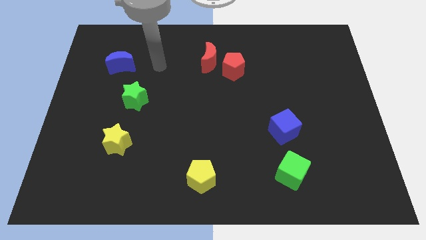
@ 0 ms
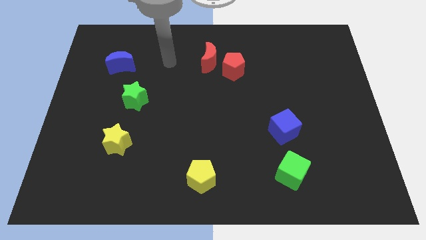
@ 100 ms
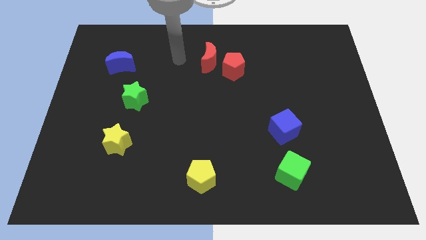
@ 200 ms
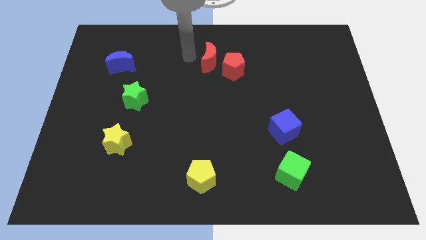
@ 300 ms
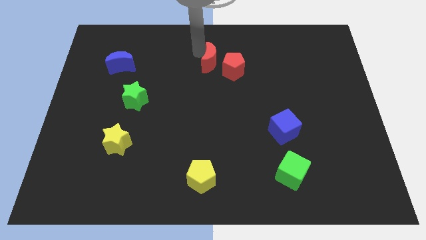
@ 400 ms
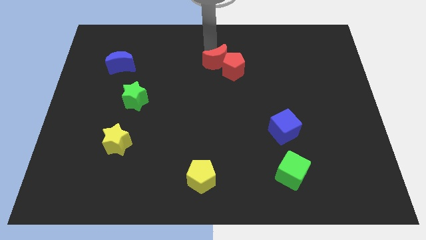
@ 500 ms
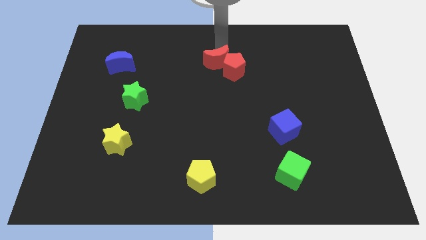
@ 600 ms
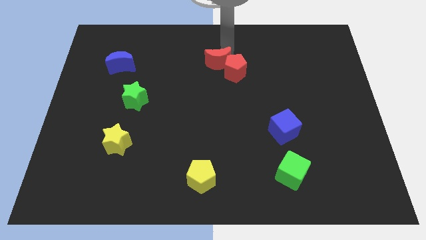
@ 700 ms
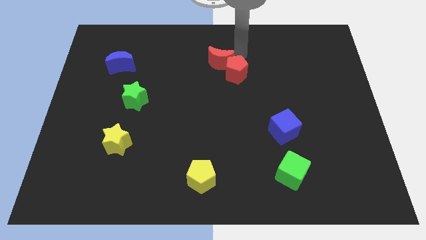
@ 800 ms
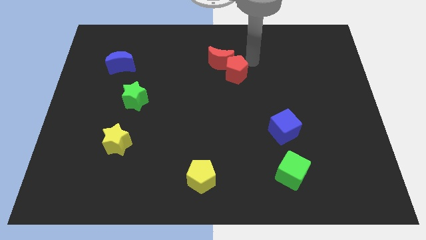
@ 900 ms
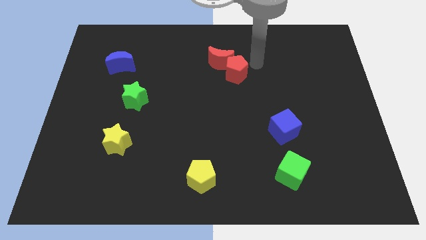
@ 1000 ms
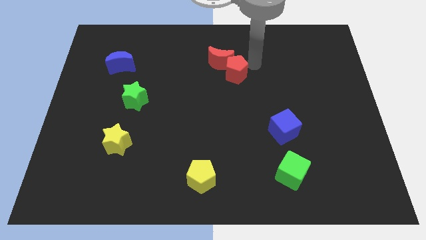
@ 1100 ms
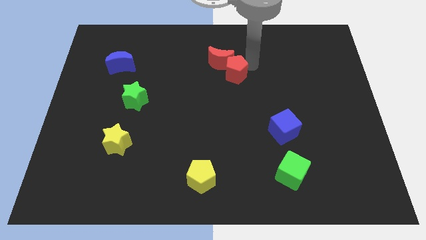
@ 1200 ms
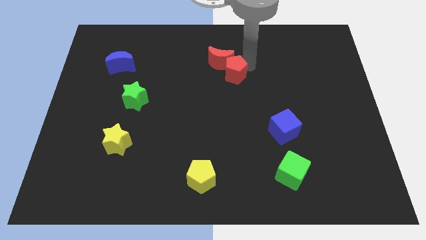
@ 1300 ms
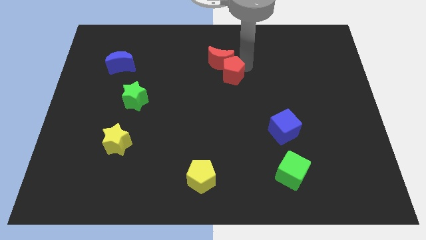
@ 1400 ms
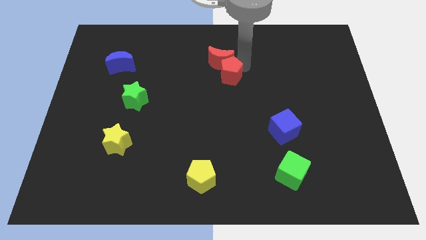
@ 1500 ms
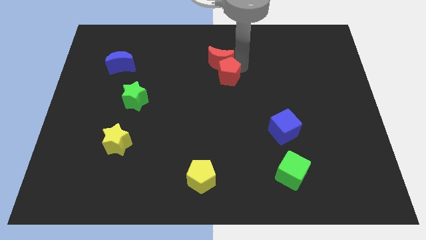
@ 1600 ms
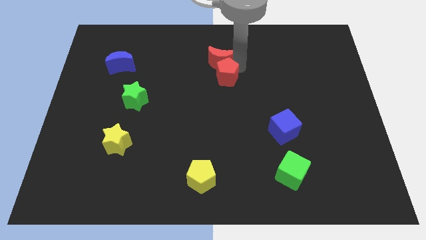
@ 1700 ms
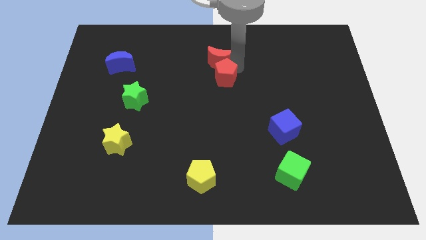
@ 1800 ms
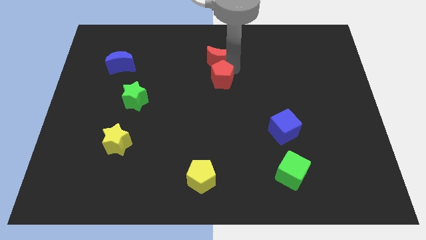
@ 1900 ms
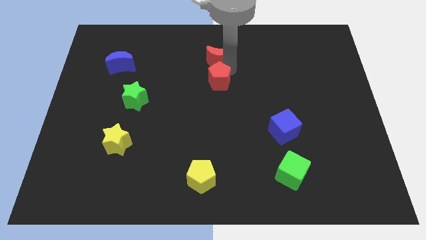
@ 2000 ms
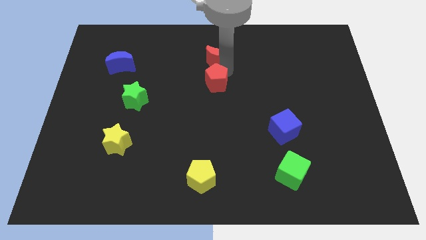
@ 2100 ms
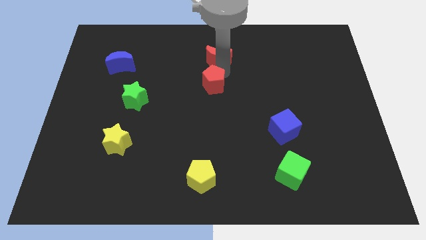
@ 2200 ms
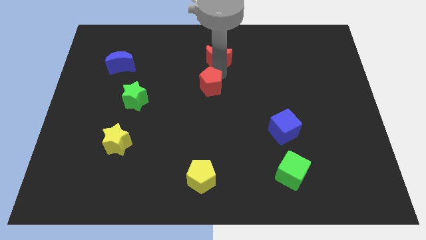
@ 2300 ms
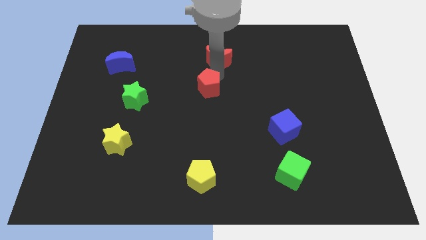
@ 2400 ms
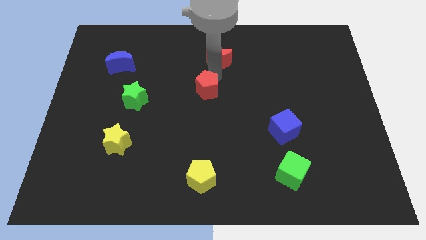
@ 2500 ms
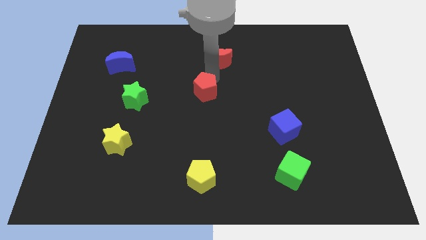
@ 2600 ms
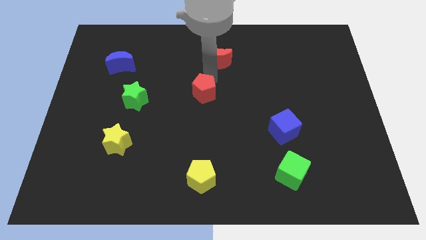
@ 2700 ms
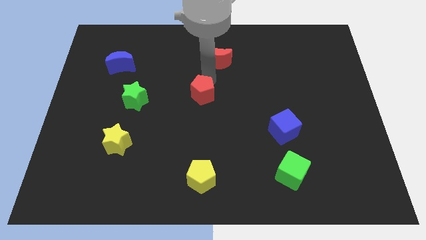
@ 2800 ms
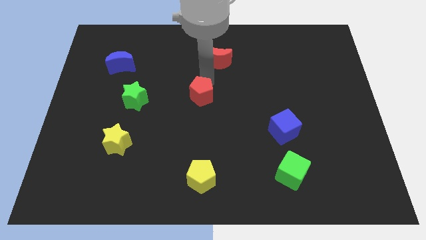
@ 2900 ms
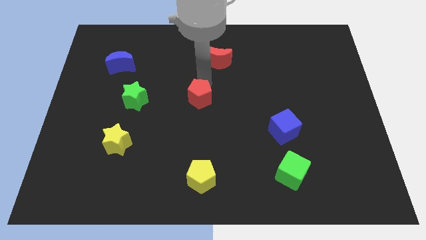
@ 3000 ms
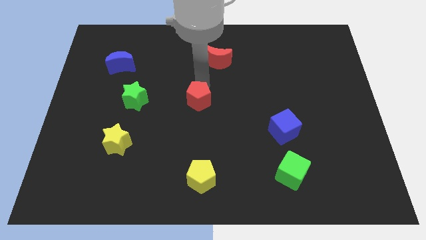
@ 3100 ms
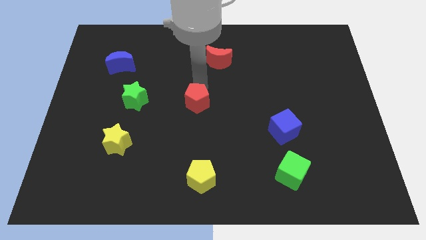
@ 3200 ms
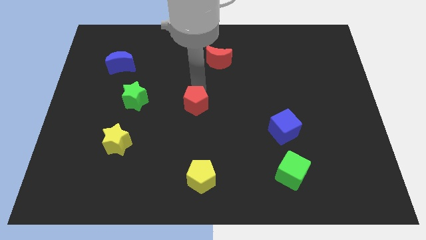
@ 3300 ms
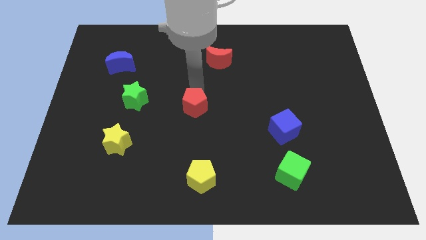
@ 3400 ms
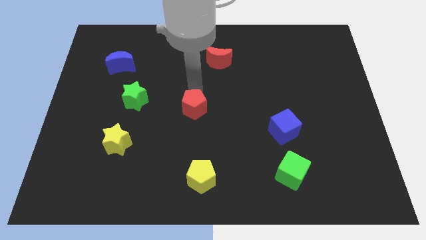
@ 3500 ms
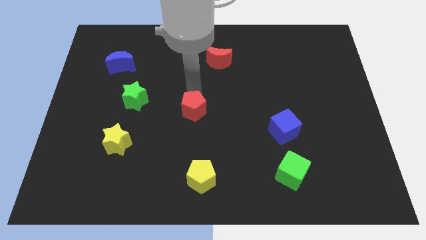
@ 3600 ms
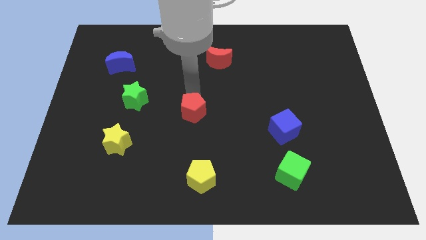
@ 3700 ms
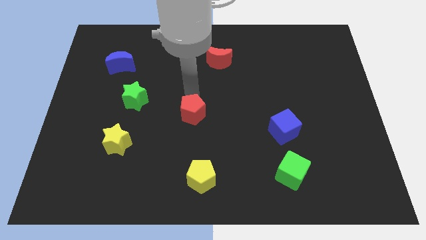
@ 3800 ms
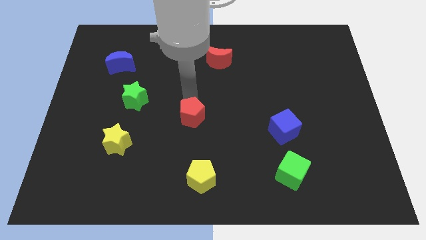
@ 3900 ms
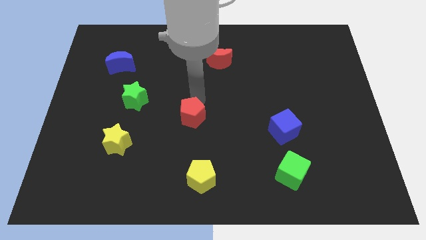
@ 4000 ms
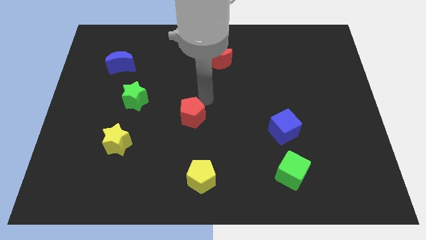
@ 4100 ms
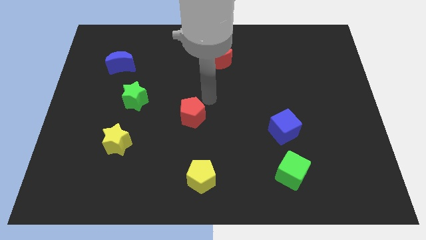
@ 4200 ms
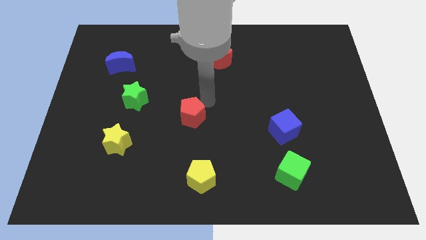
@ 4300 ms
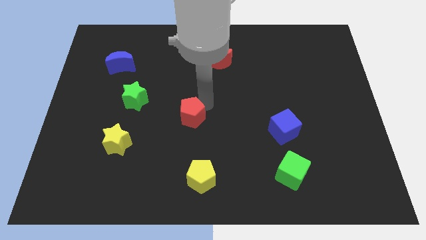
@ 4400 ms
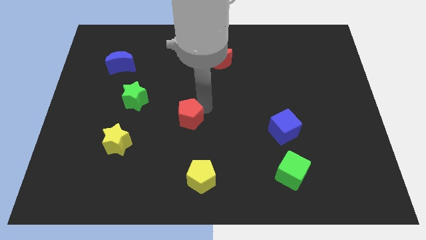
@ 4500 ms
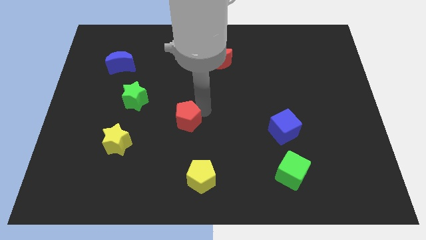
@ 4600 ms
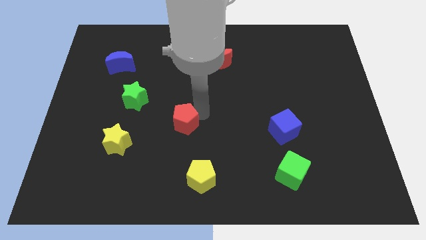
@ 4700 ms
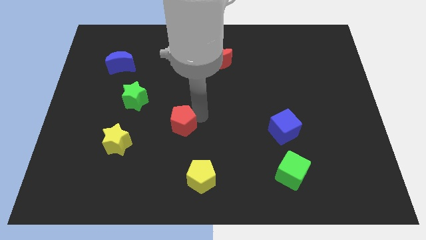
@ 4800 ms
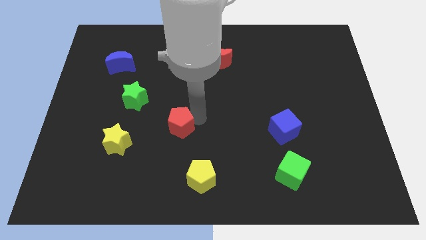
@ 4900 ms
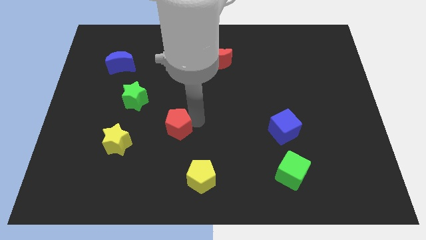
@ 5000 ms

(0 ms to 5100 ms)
move the red pentagon to the right of the yellow star

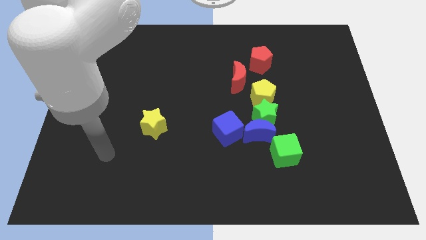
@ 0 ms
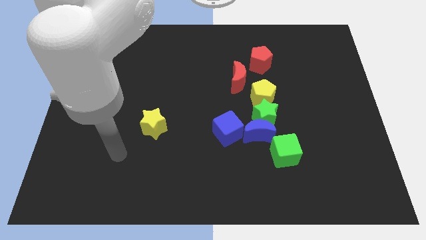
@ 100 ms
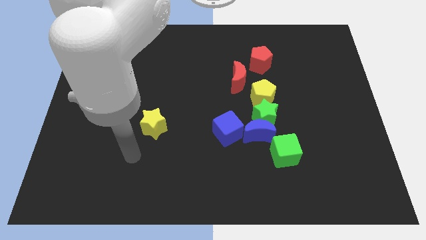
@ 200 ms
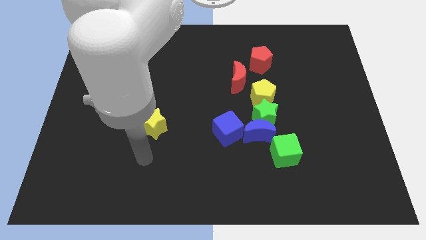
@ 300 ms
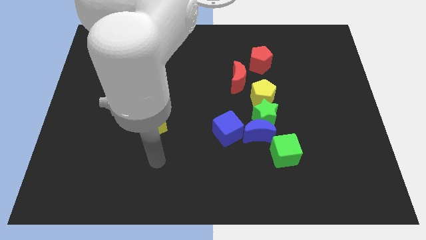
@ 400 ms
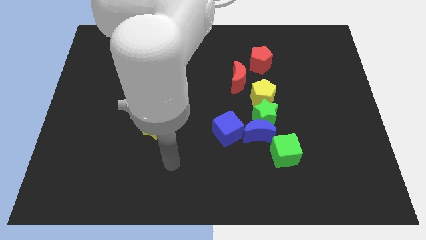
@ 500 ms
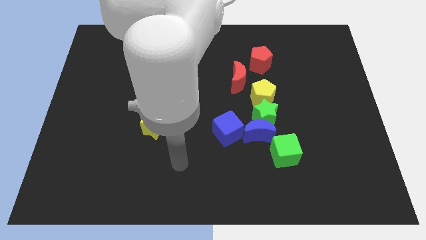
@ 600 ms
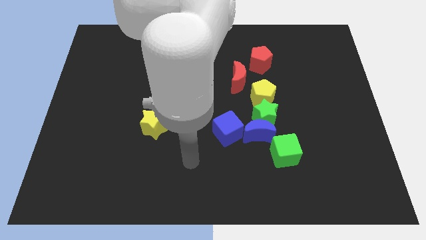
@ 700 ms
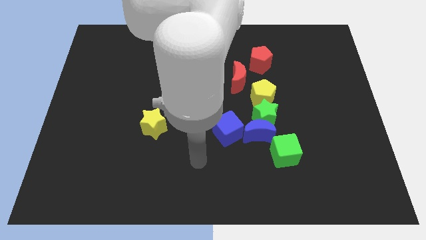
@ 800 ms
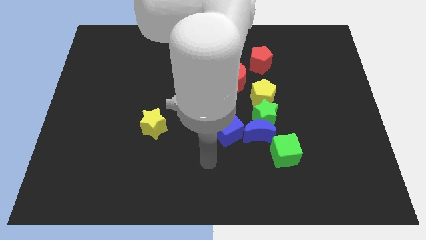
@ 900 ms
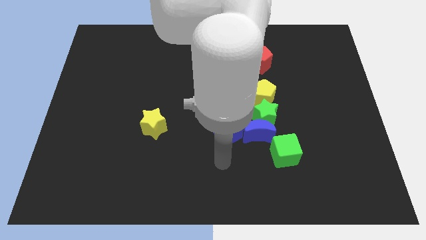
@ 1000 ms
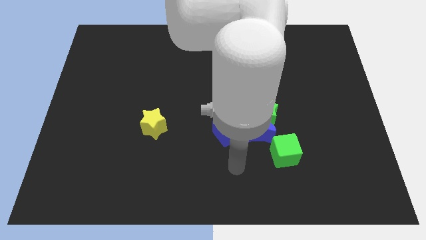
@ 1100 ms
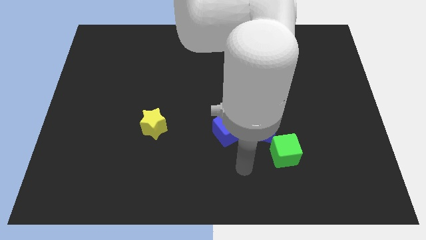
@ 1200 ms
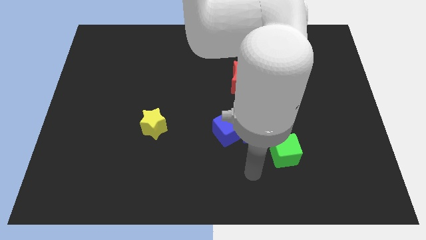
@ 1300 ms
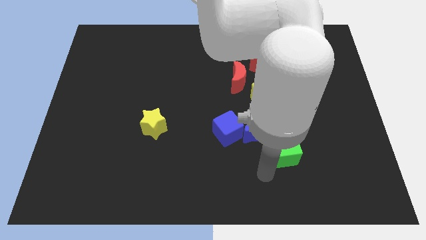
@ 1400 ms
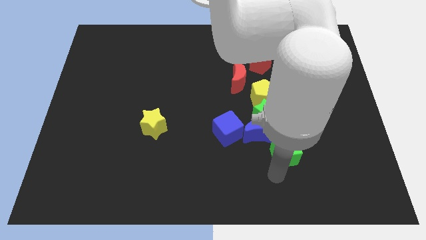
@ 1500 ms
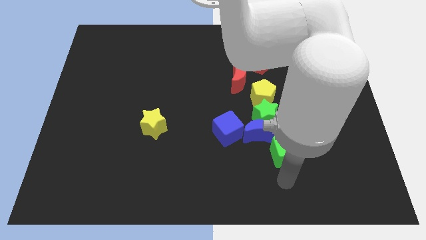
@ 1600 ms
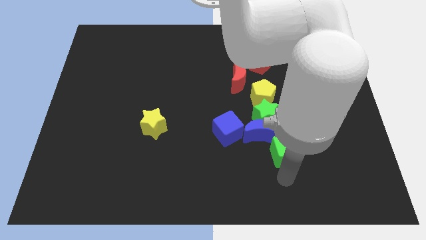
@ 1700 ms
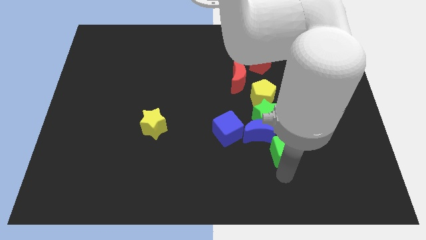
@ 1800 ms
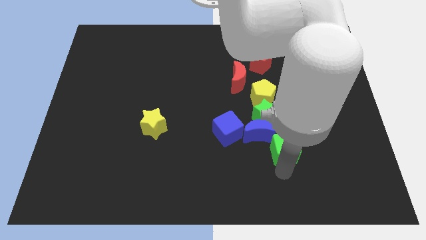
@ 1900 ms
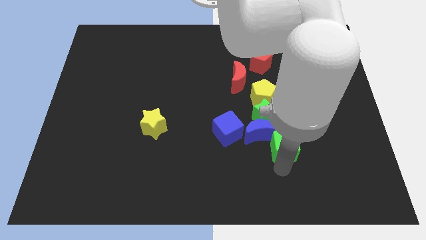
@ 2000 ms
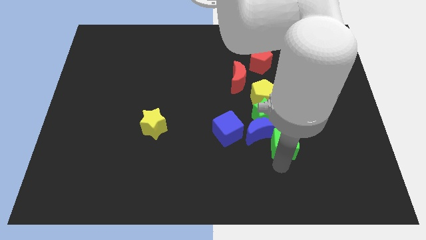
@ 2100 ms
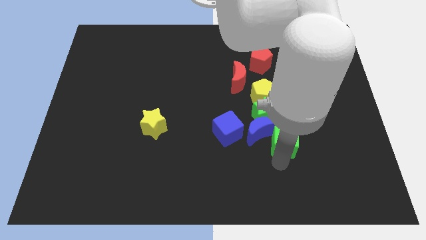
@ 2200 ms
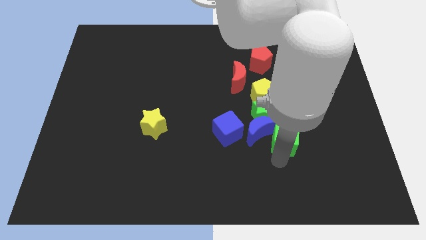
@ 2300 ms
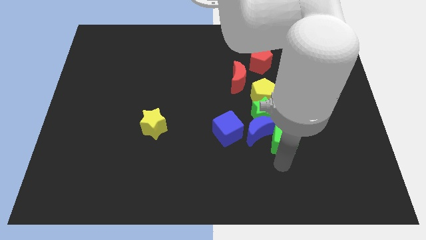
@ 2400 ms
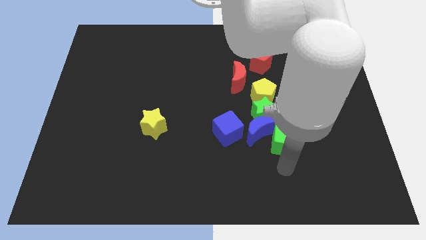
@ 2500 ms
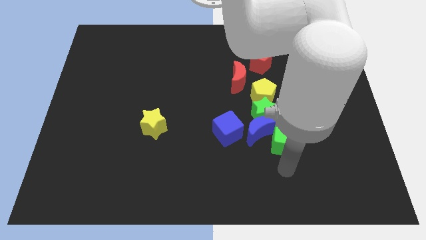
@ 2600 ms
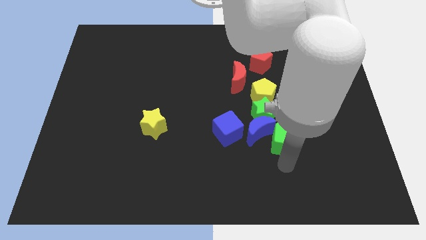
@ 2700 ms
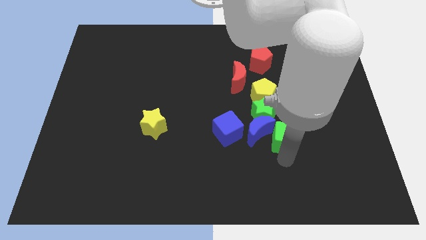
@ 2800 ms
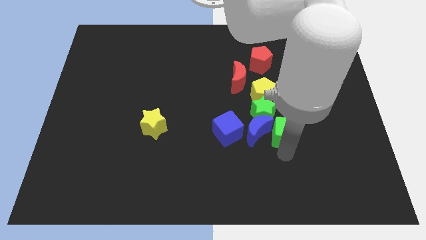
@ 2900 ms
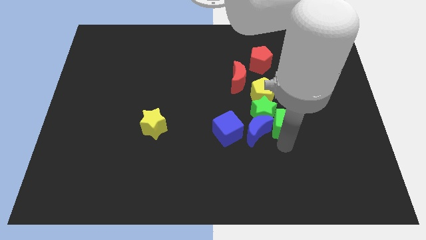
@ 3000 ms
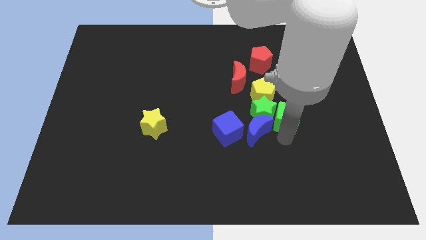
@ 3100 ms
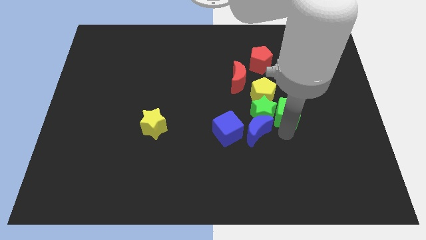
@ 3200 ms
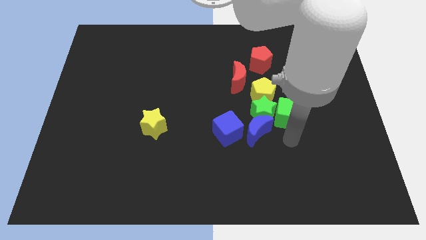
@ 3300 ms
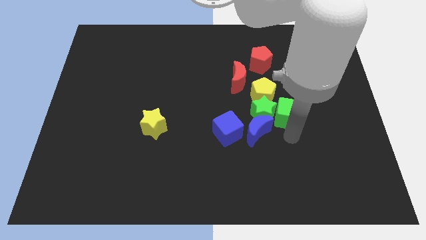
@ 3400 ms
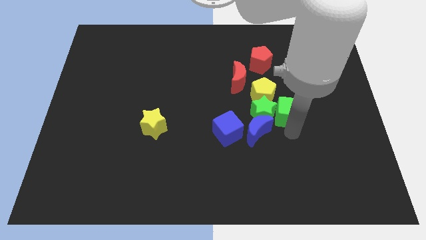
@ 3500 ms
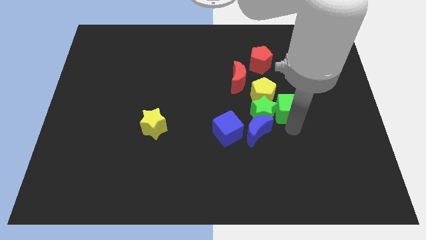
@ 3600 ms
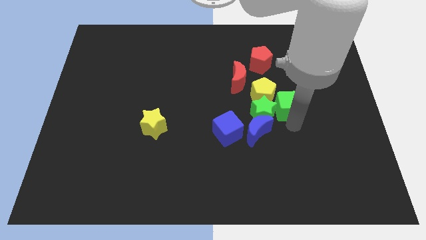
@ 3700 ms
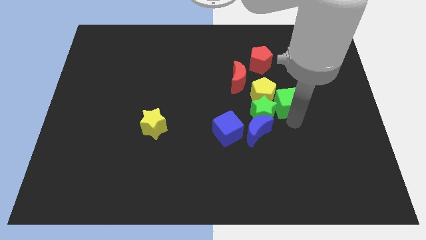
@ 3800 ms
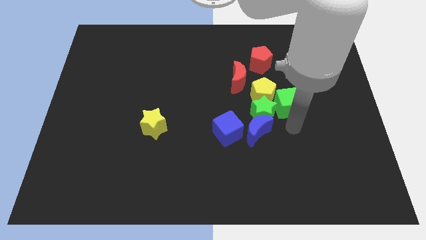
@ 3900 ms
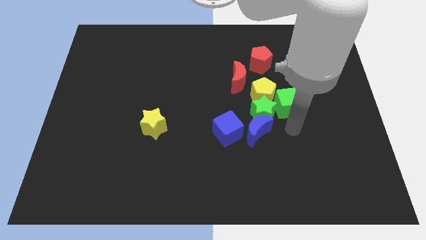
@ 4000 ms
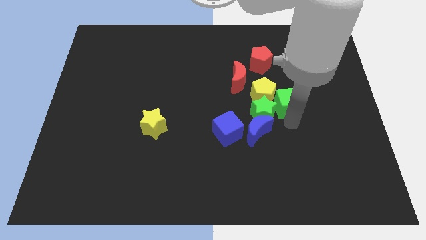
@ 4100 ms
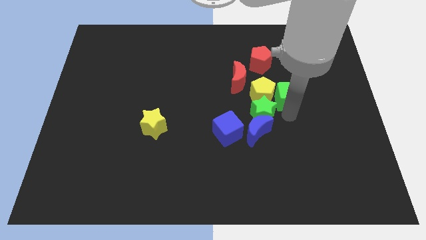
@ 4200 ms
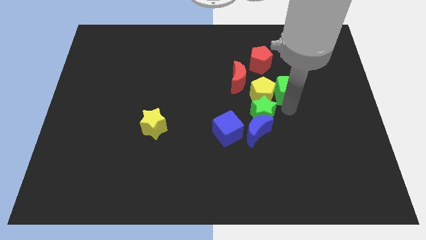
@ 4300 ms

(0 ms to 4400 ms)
put the green cube to the right of the red moon
